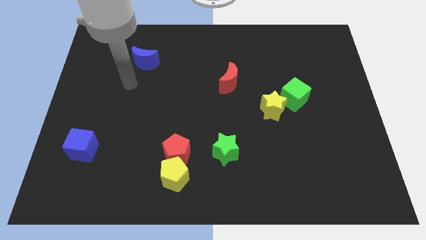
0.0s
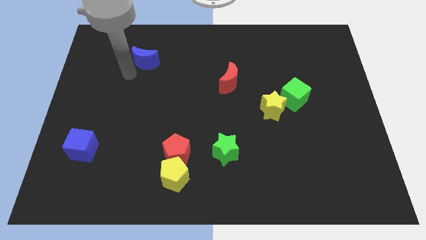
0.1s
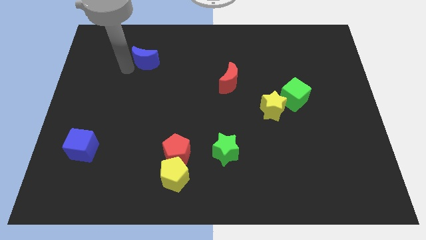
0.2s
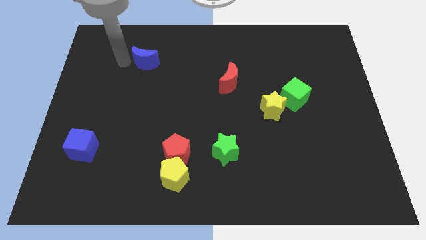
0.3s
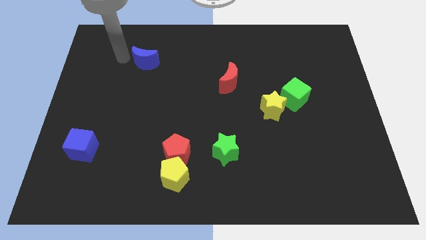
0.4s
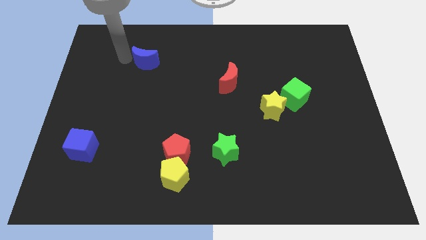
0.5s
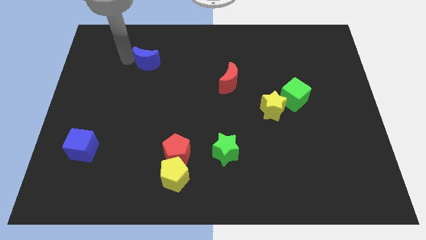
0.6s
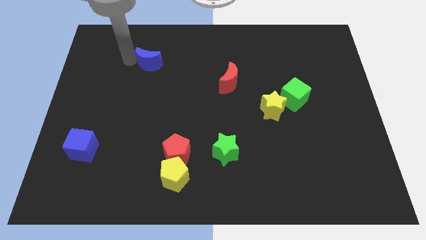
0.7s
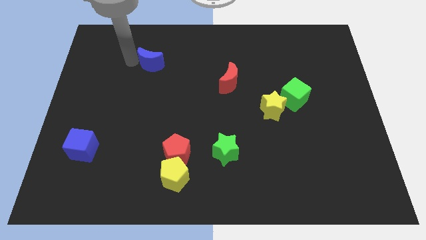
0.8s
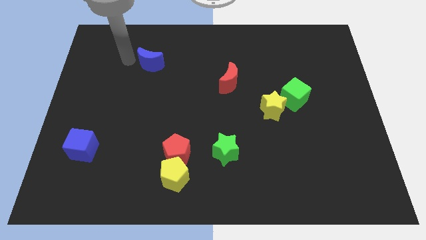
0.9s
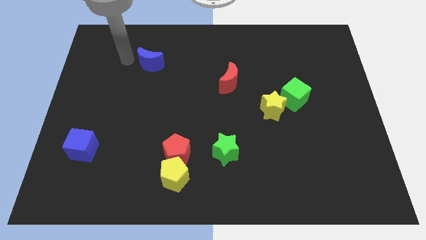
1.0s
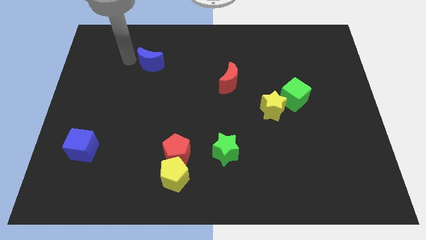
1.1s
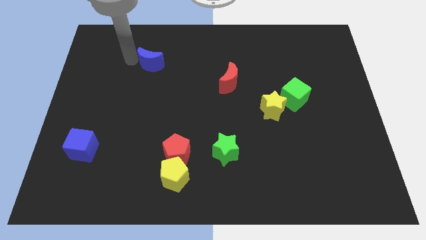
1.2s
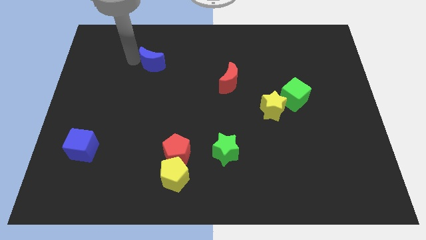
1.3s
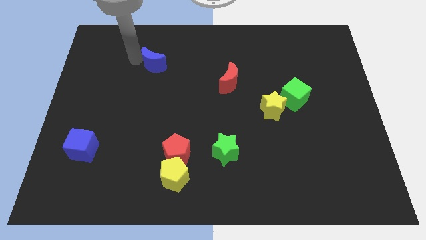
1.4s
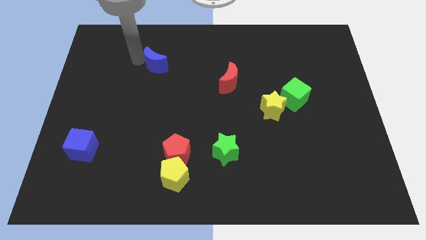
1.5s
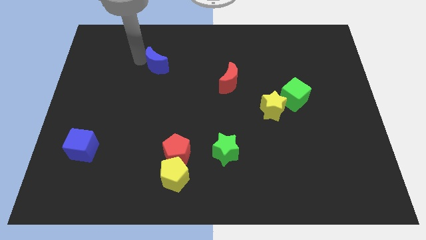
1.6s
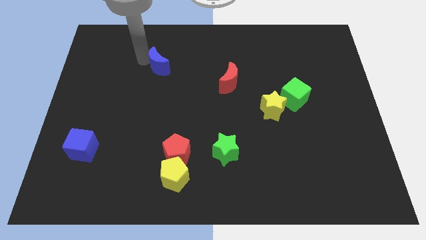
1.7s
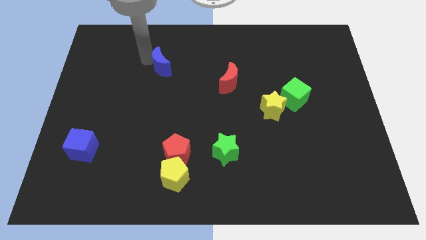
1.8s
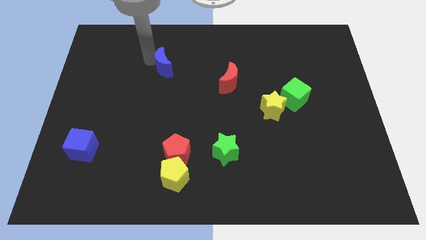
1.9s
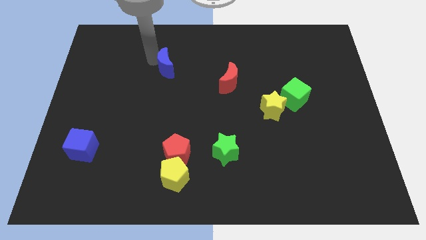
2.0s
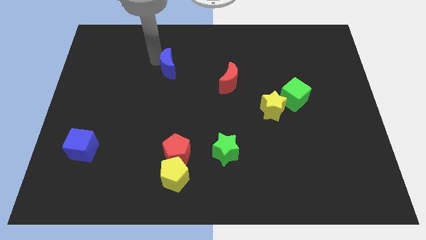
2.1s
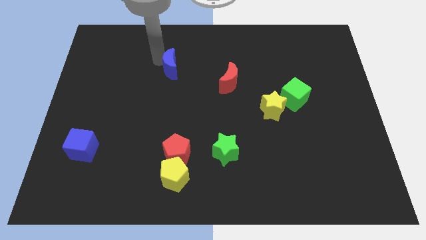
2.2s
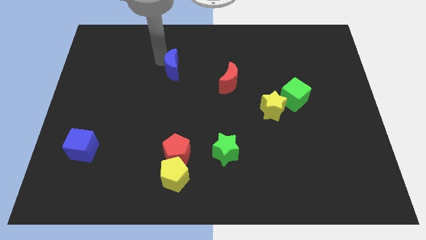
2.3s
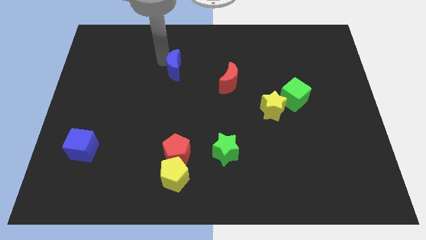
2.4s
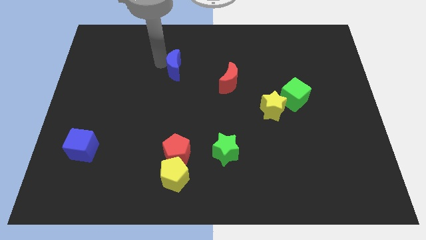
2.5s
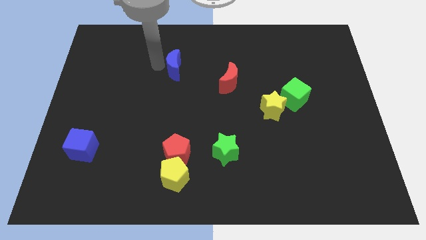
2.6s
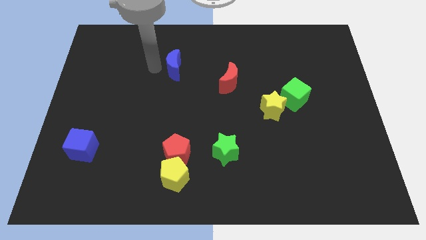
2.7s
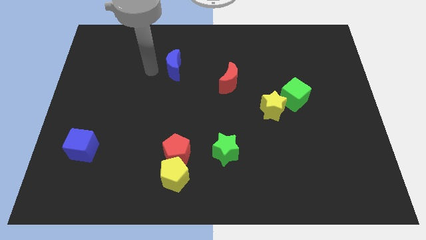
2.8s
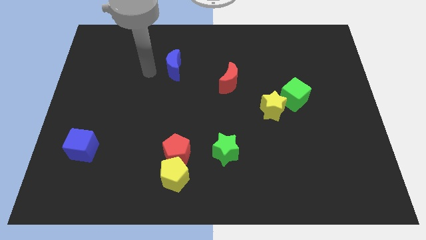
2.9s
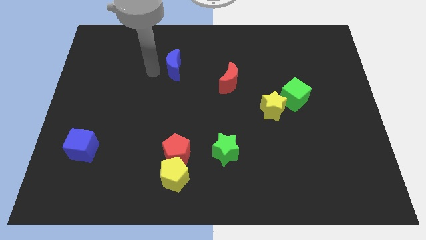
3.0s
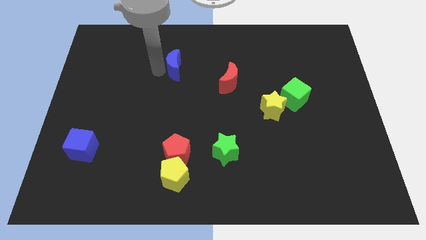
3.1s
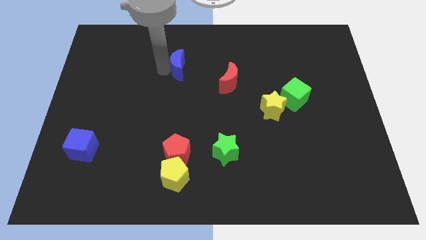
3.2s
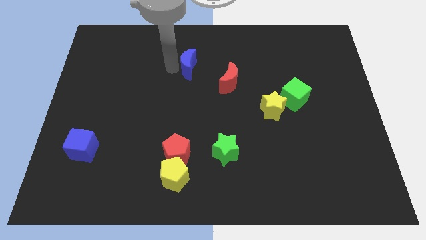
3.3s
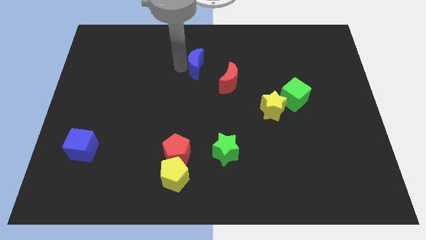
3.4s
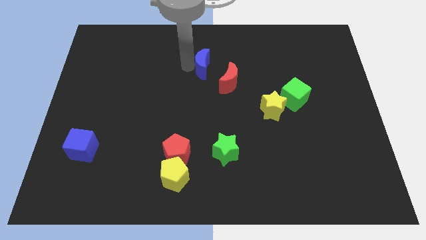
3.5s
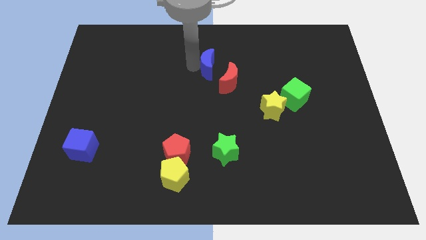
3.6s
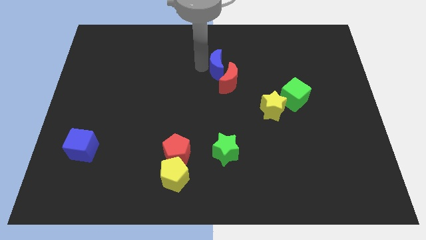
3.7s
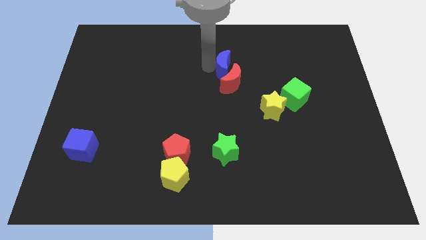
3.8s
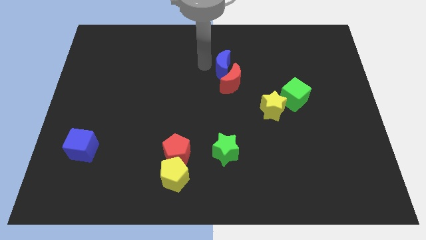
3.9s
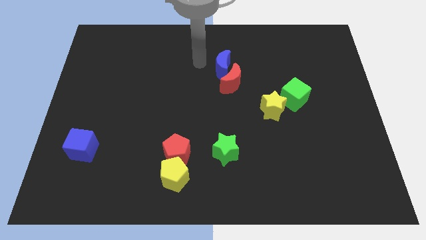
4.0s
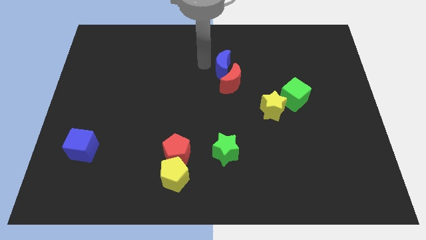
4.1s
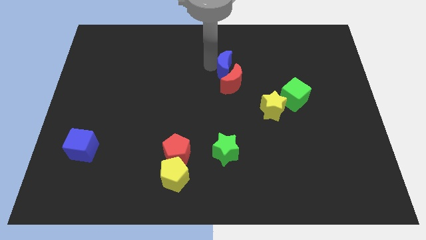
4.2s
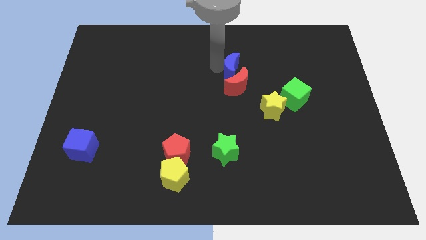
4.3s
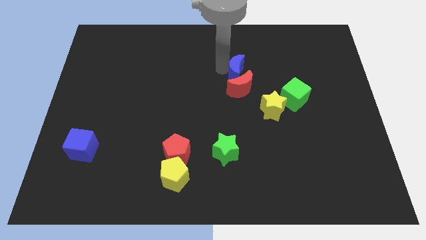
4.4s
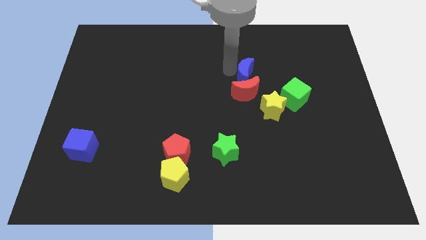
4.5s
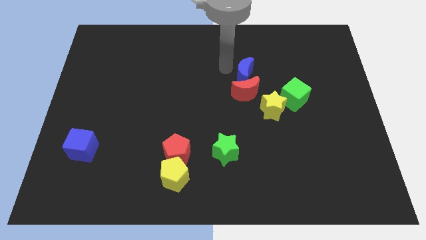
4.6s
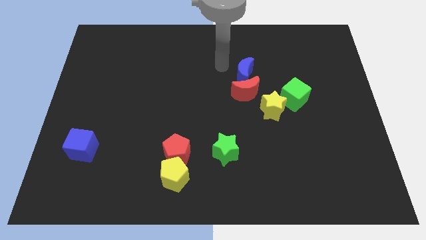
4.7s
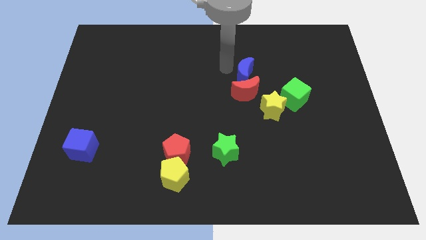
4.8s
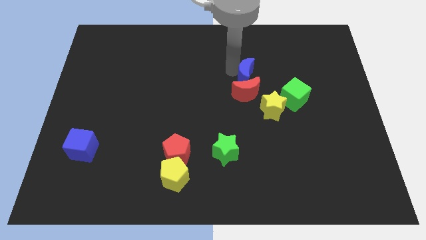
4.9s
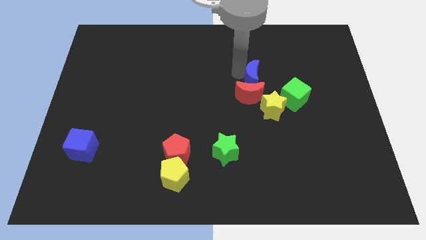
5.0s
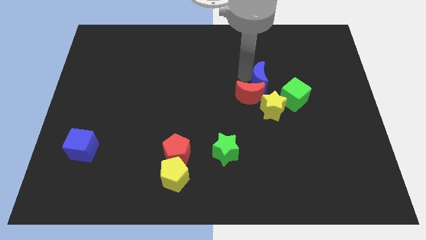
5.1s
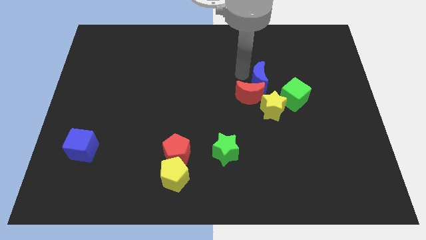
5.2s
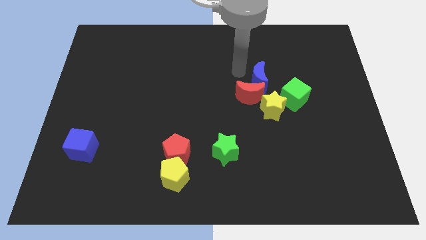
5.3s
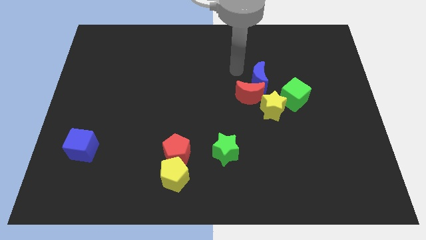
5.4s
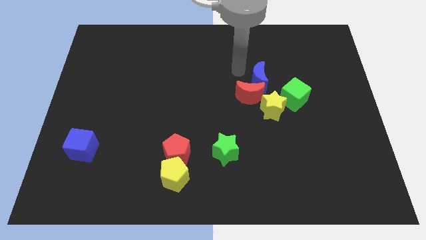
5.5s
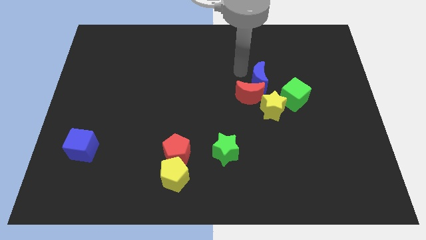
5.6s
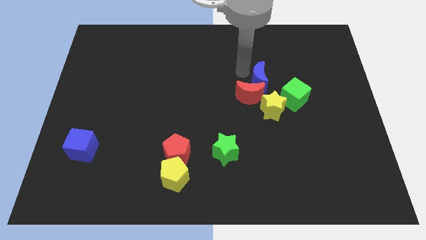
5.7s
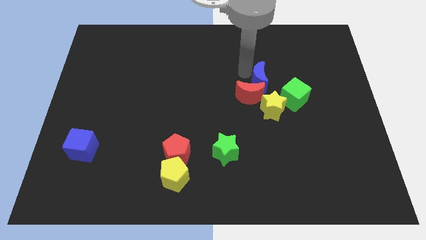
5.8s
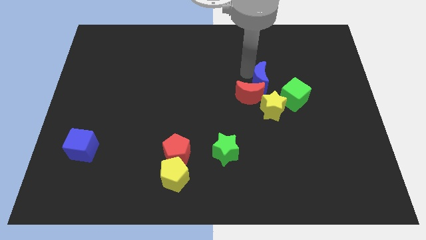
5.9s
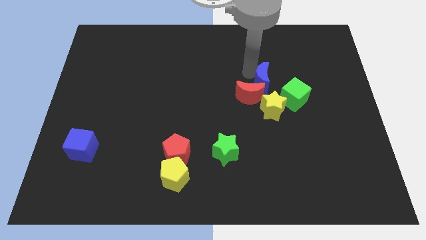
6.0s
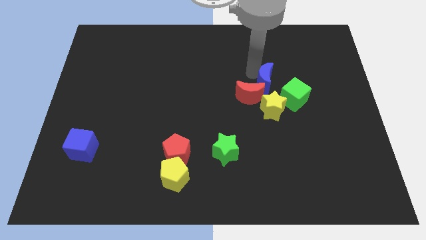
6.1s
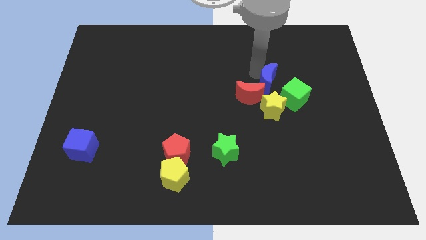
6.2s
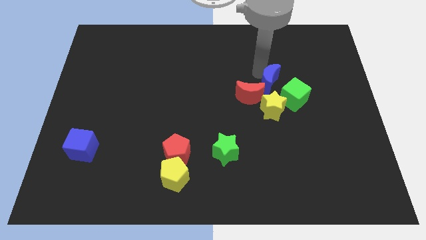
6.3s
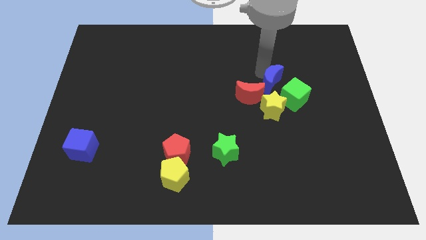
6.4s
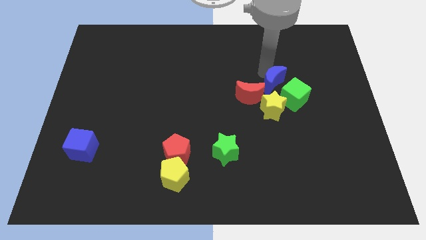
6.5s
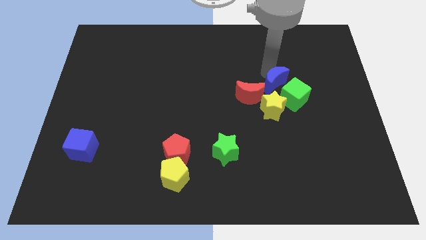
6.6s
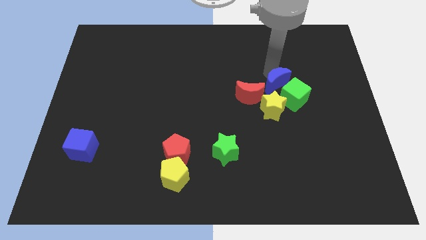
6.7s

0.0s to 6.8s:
slide the blue moon next to the green cube

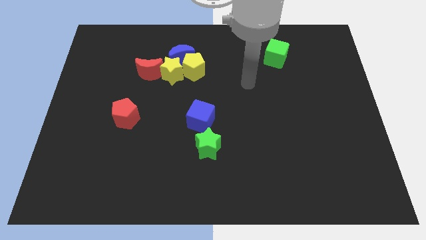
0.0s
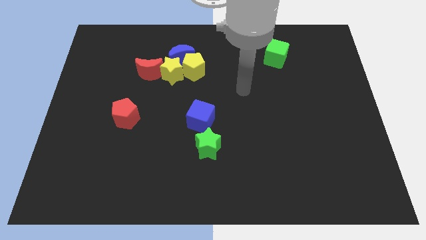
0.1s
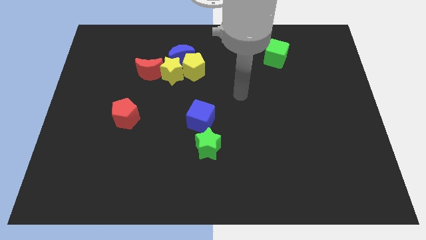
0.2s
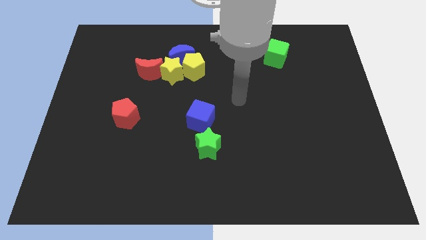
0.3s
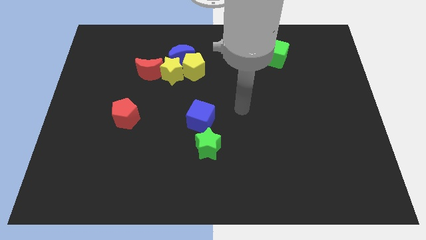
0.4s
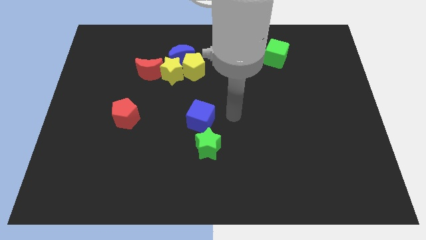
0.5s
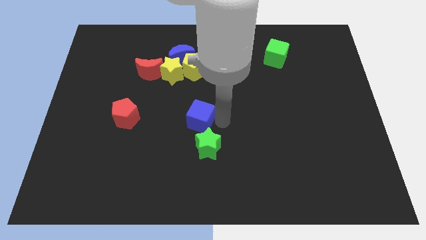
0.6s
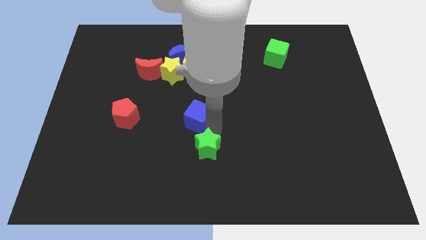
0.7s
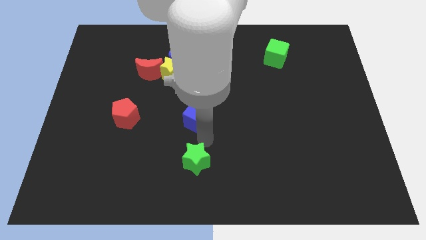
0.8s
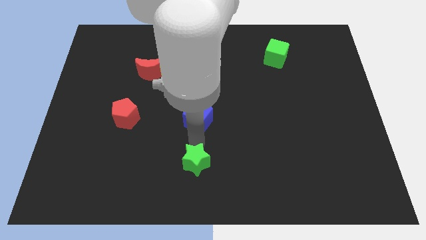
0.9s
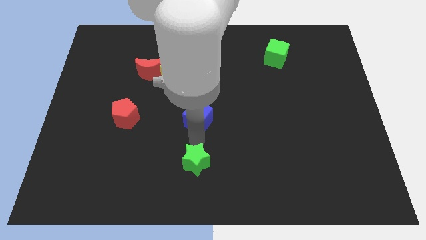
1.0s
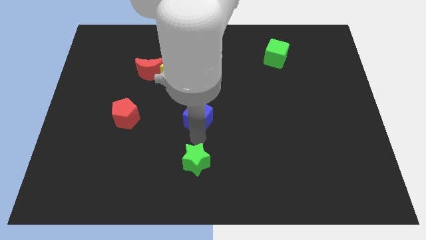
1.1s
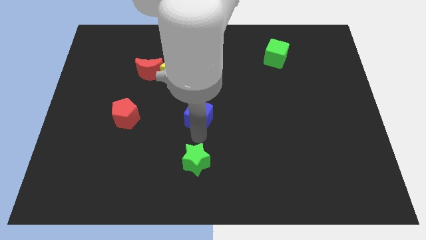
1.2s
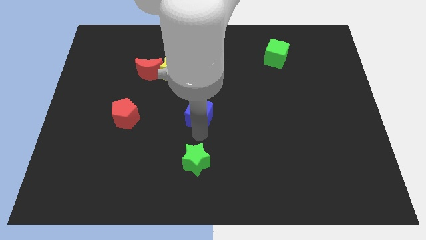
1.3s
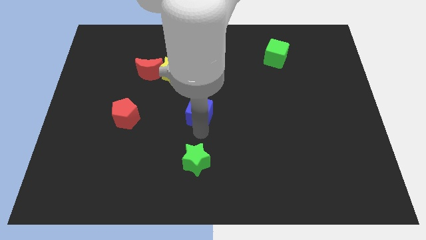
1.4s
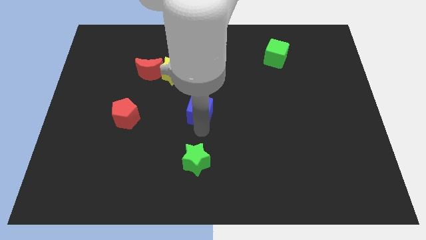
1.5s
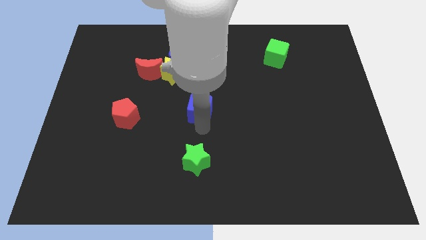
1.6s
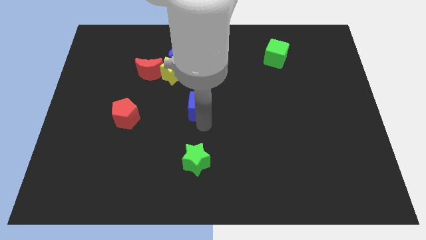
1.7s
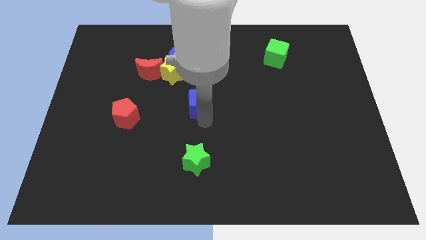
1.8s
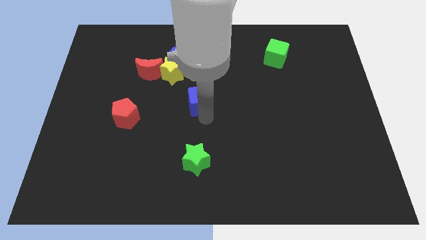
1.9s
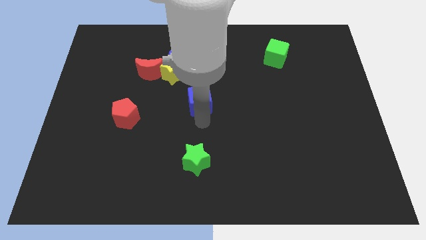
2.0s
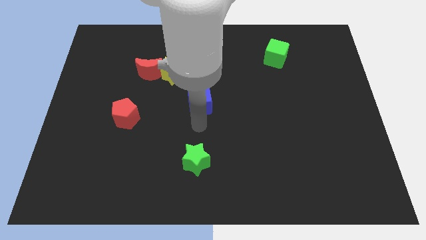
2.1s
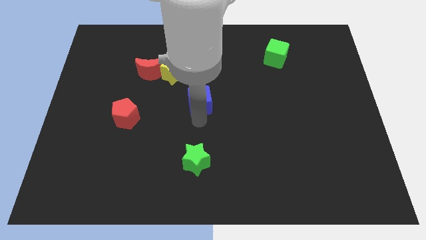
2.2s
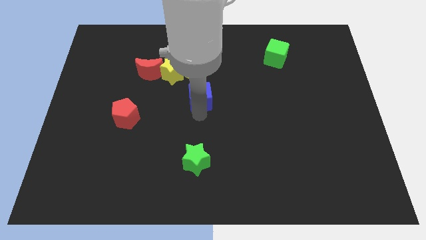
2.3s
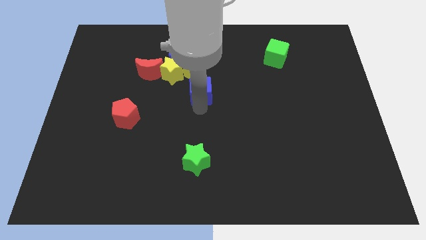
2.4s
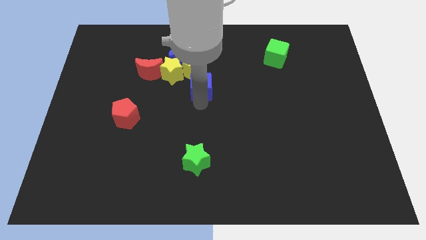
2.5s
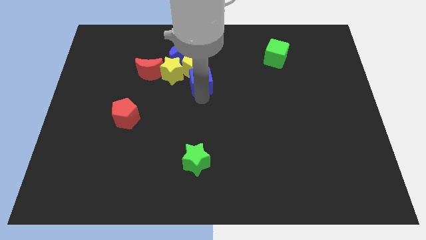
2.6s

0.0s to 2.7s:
put the blue cube close to the yellow pentagon
